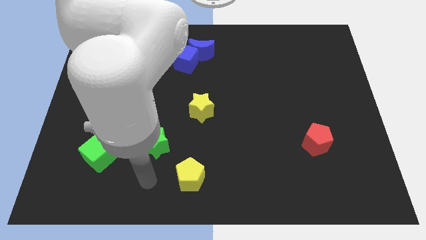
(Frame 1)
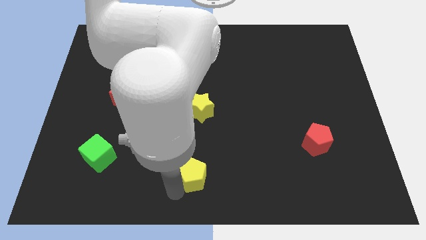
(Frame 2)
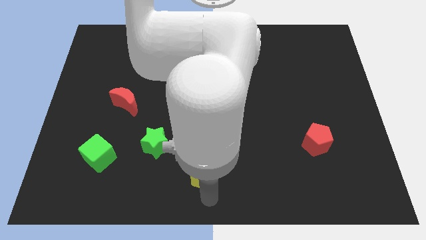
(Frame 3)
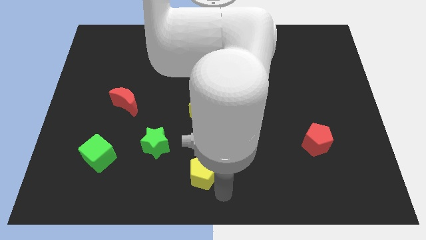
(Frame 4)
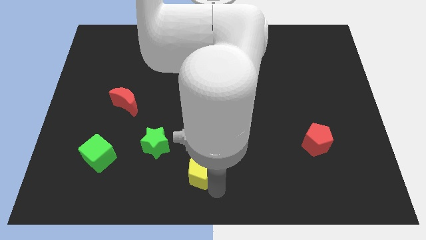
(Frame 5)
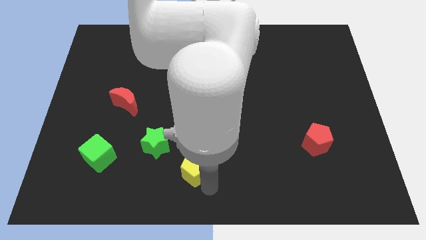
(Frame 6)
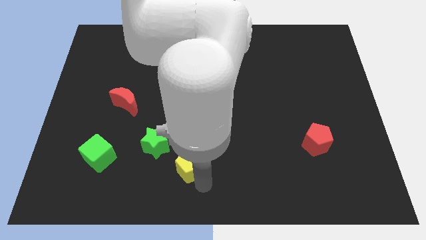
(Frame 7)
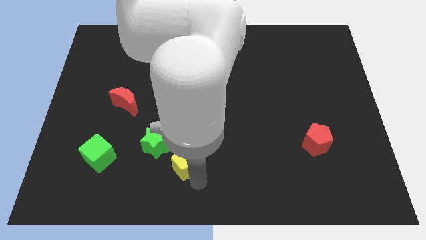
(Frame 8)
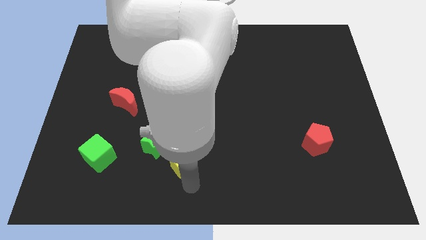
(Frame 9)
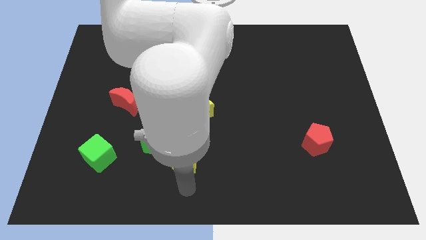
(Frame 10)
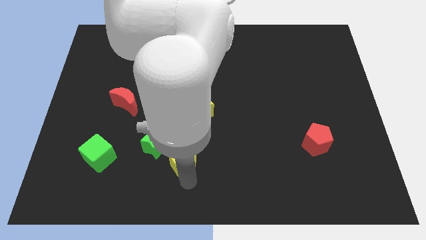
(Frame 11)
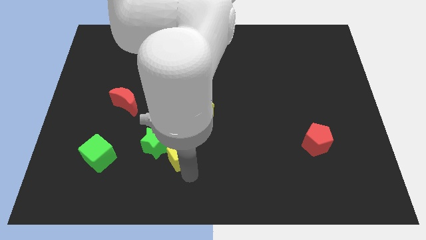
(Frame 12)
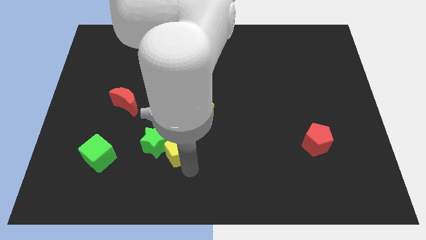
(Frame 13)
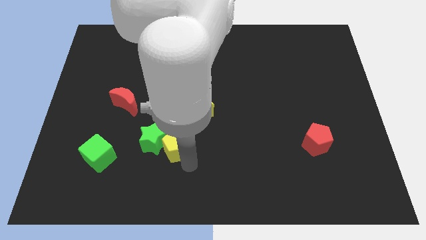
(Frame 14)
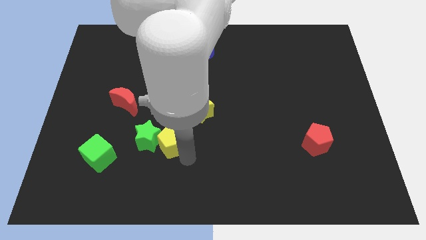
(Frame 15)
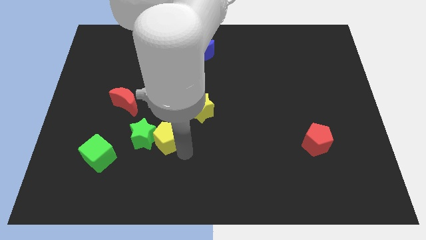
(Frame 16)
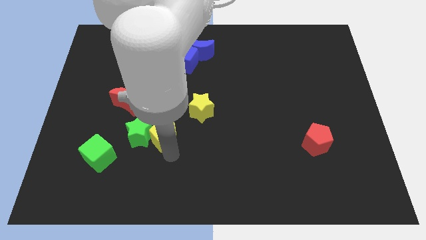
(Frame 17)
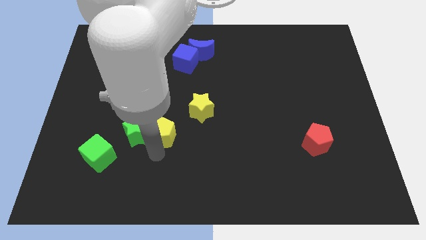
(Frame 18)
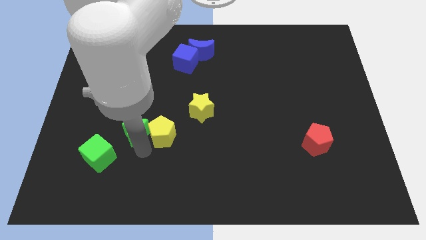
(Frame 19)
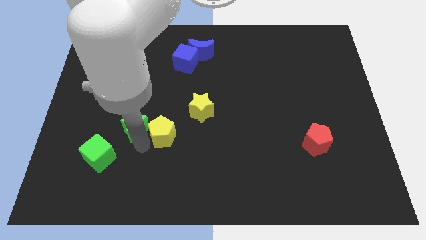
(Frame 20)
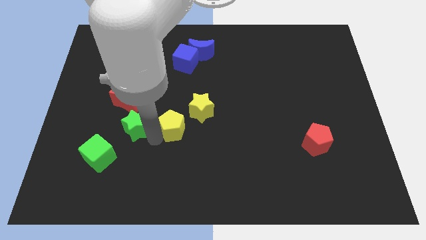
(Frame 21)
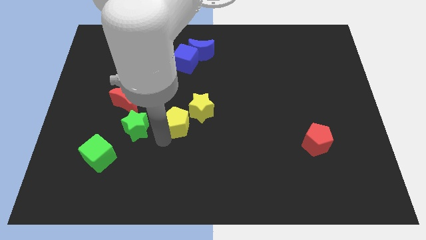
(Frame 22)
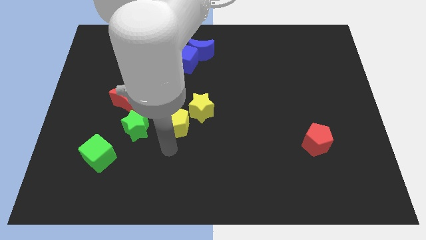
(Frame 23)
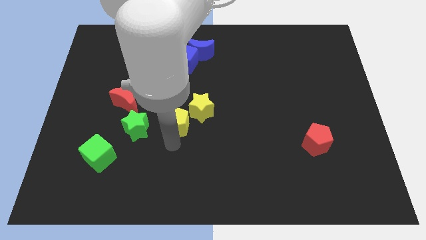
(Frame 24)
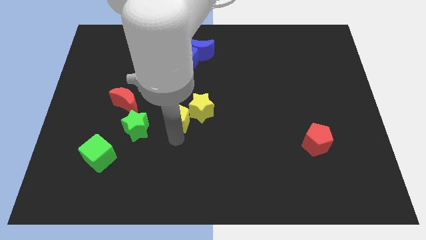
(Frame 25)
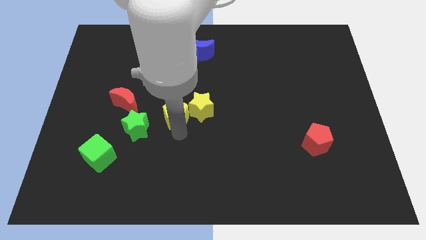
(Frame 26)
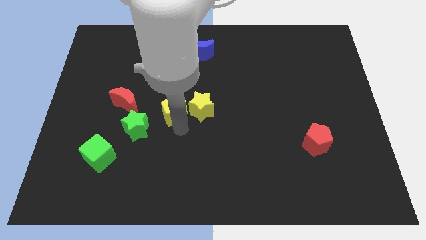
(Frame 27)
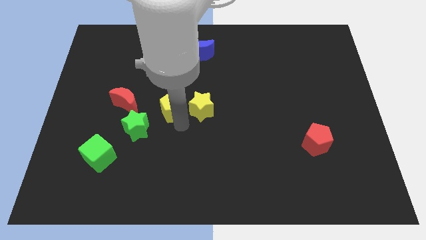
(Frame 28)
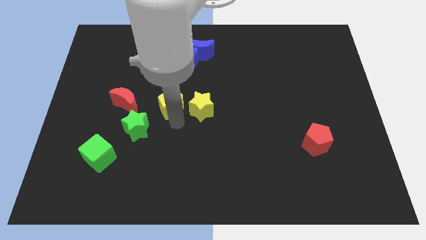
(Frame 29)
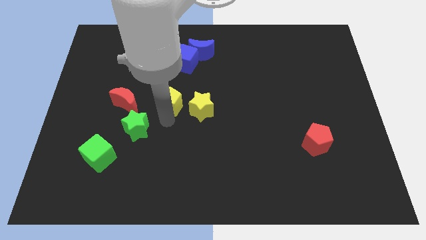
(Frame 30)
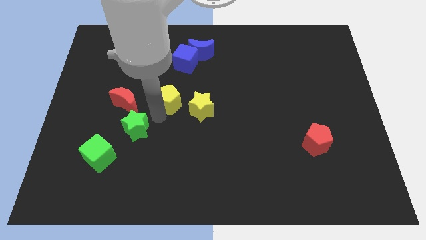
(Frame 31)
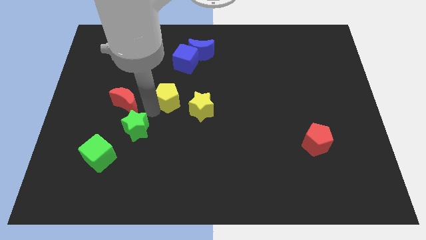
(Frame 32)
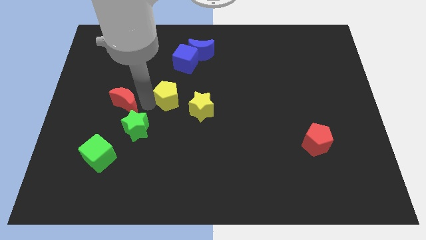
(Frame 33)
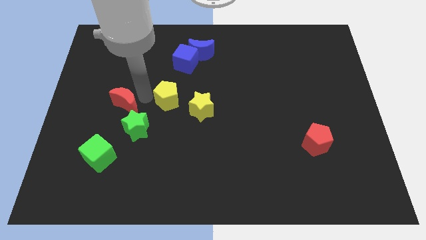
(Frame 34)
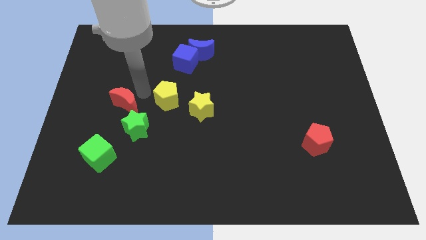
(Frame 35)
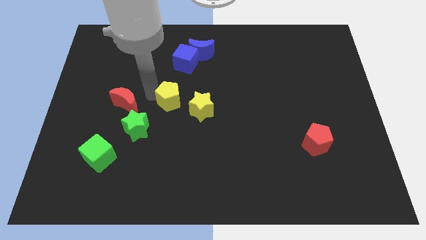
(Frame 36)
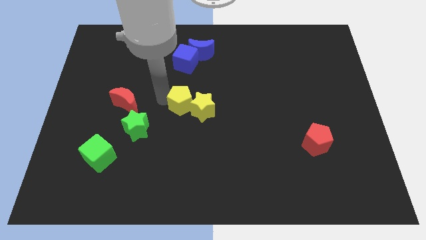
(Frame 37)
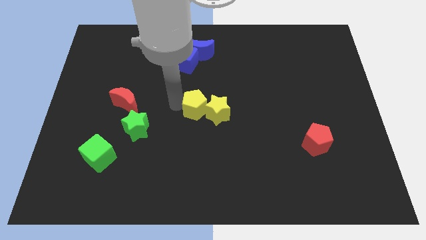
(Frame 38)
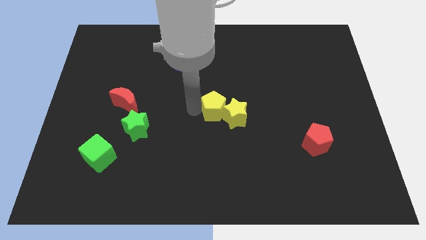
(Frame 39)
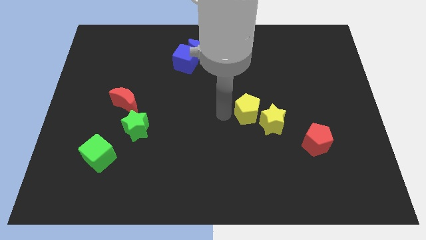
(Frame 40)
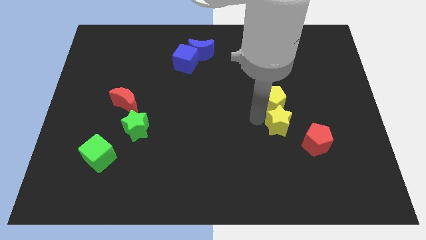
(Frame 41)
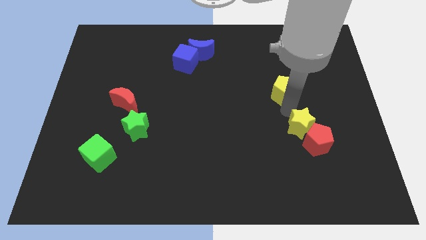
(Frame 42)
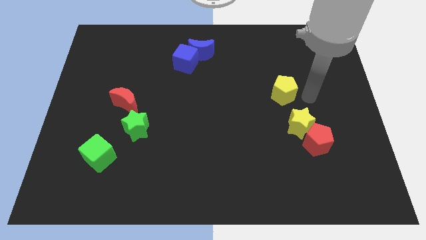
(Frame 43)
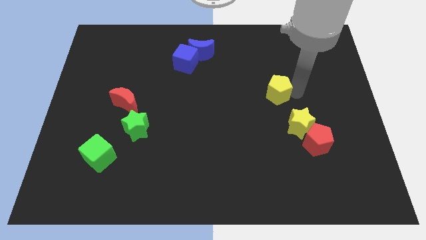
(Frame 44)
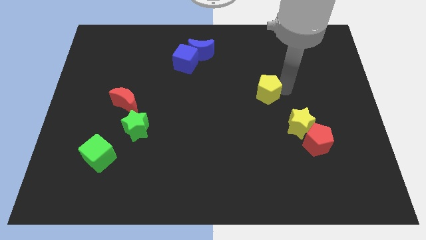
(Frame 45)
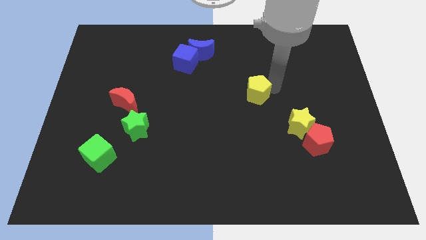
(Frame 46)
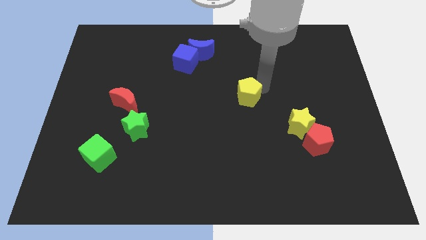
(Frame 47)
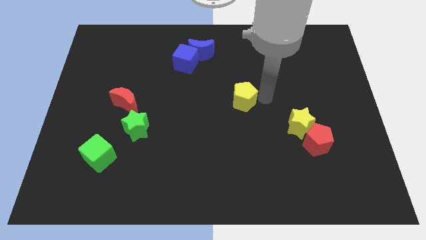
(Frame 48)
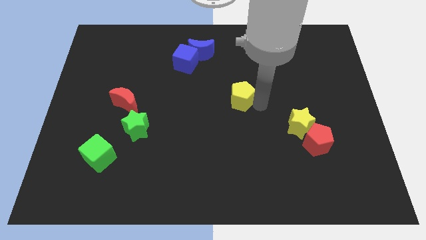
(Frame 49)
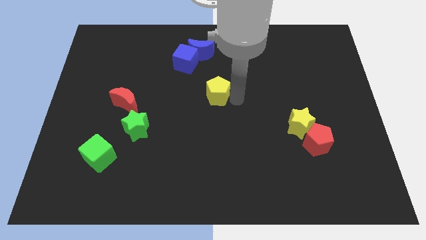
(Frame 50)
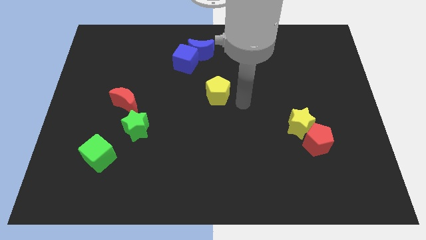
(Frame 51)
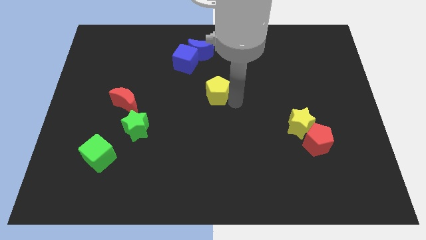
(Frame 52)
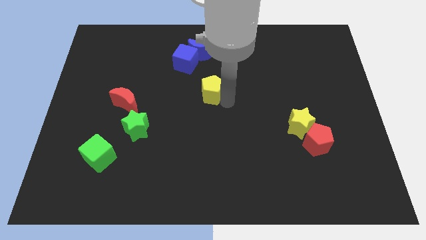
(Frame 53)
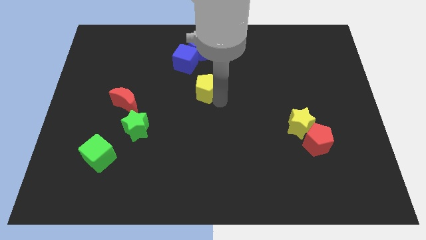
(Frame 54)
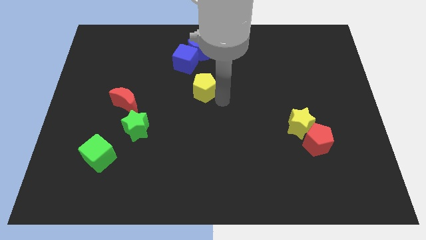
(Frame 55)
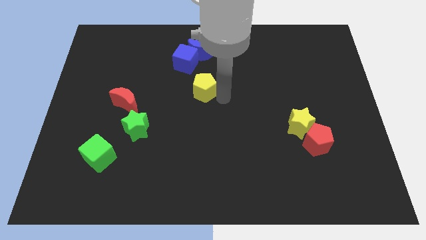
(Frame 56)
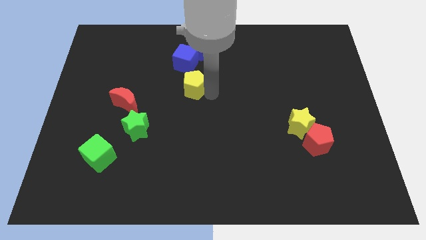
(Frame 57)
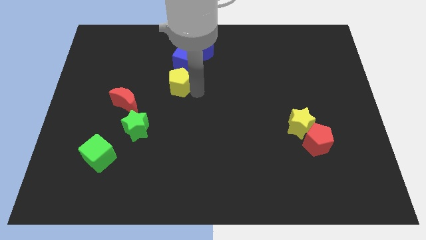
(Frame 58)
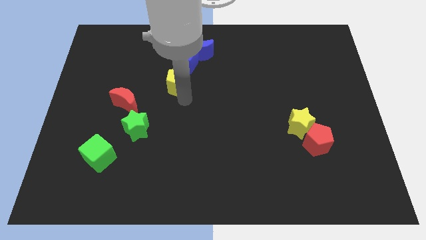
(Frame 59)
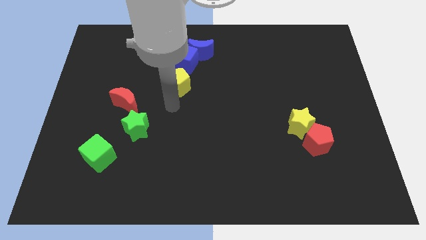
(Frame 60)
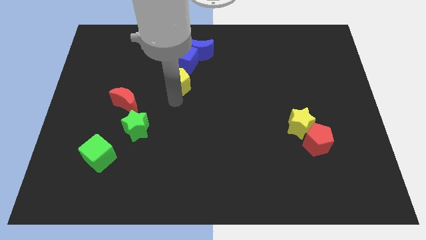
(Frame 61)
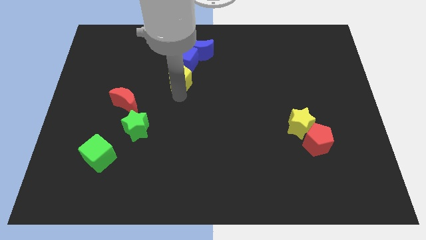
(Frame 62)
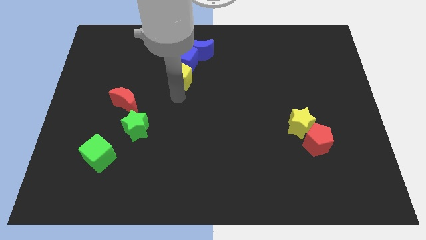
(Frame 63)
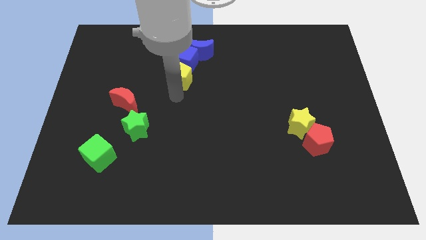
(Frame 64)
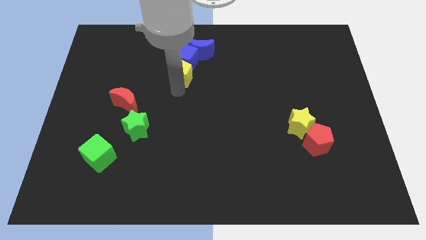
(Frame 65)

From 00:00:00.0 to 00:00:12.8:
put the yellow pentagon next to the blue cube
